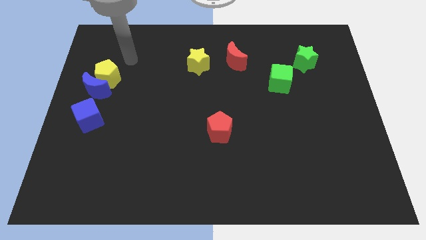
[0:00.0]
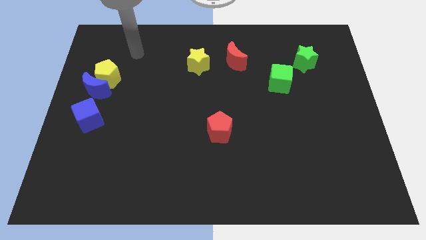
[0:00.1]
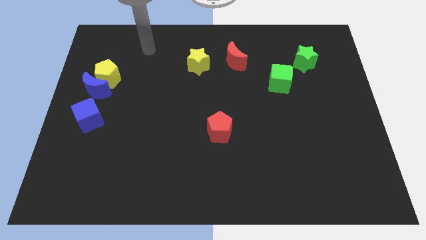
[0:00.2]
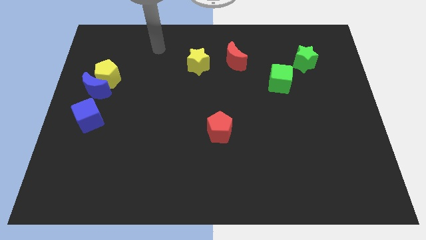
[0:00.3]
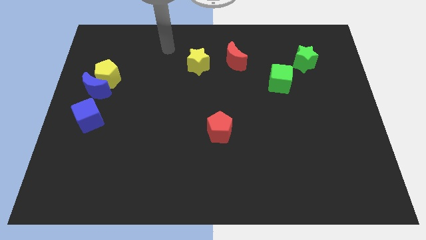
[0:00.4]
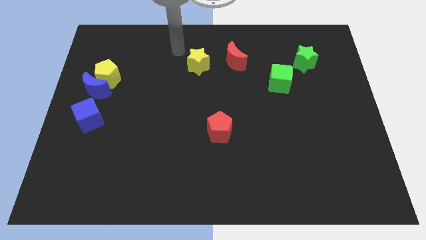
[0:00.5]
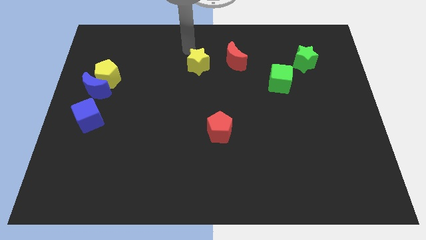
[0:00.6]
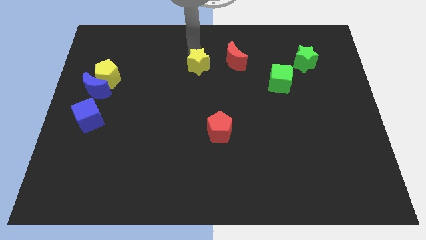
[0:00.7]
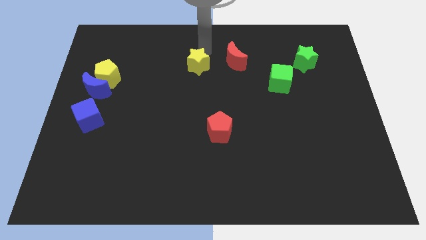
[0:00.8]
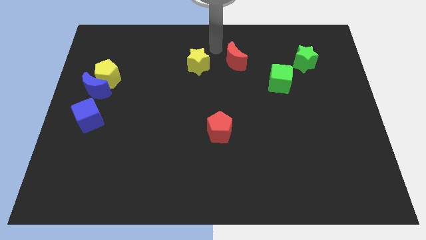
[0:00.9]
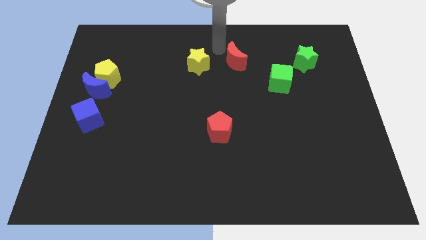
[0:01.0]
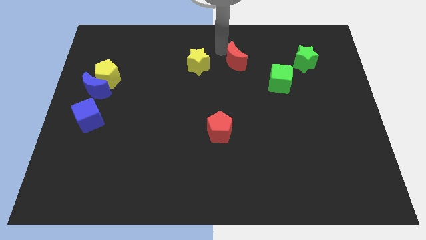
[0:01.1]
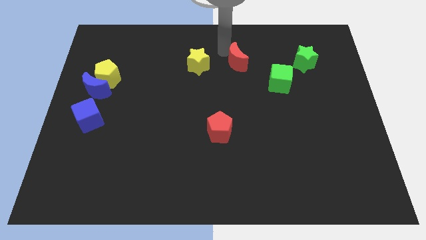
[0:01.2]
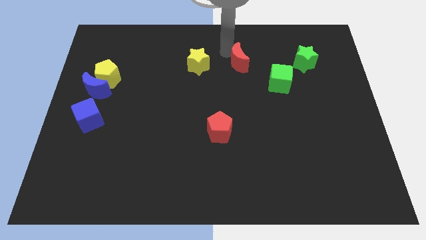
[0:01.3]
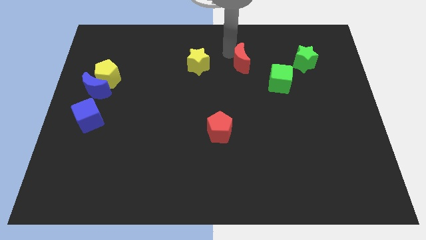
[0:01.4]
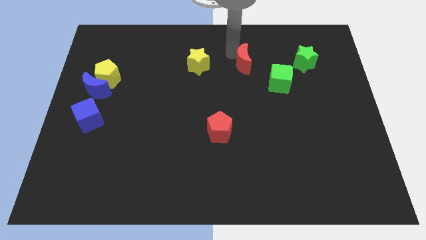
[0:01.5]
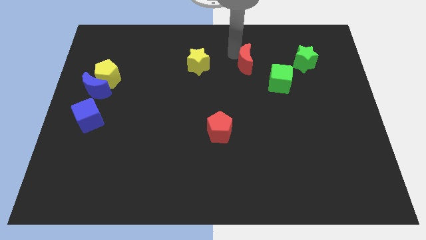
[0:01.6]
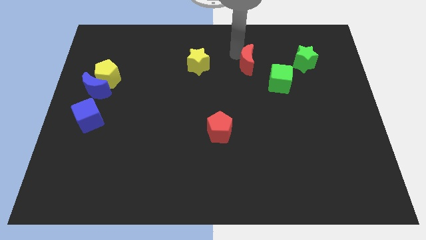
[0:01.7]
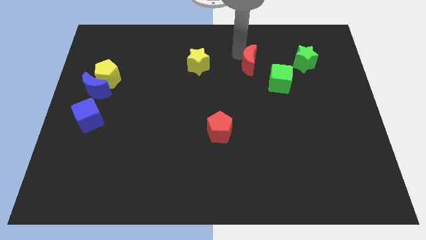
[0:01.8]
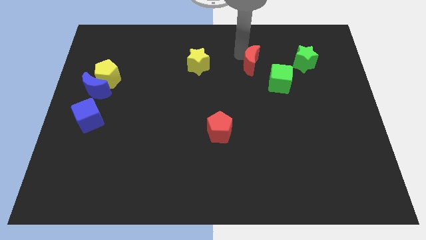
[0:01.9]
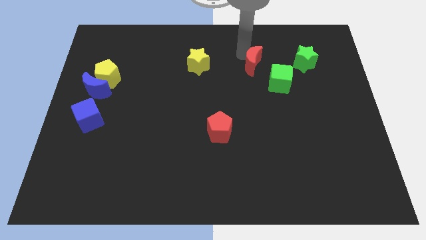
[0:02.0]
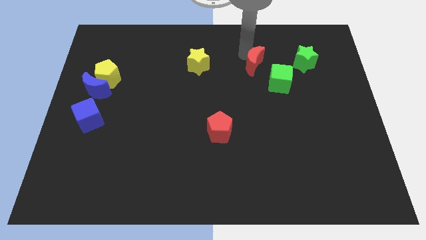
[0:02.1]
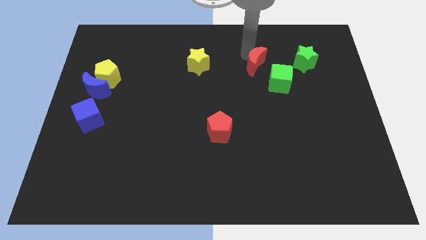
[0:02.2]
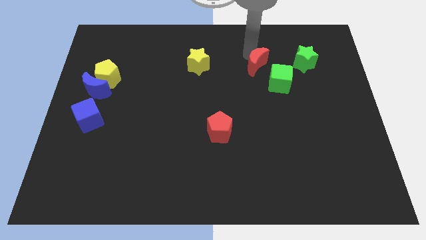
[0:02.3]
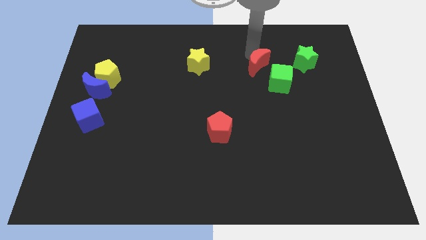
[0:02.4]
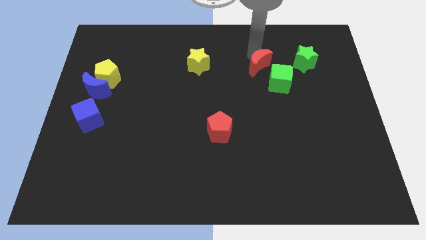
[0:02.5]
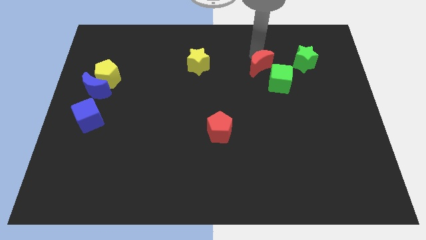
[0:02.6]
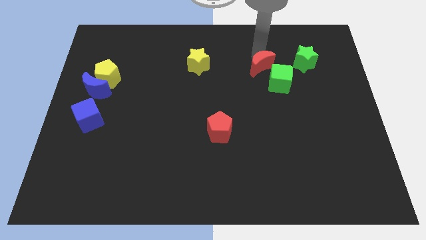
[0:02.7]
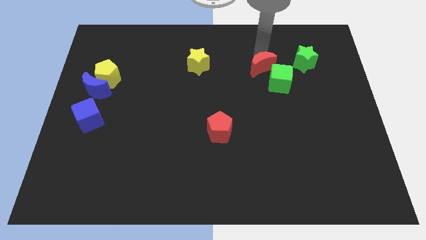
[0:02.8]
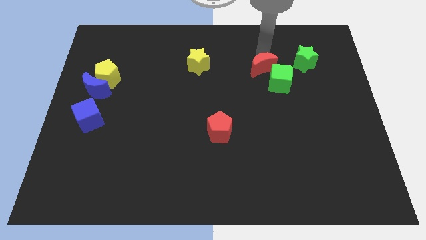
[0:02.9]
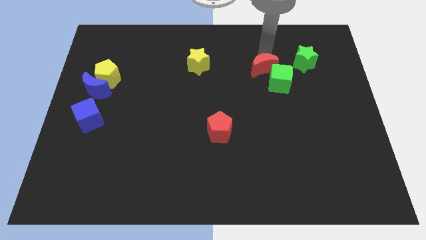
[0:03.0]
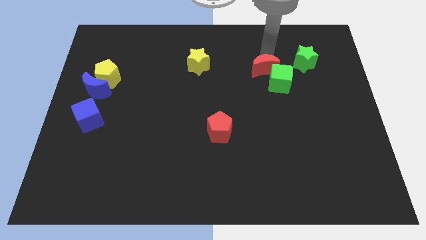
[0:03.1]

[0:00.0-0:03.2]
slide the red moon down and then to the right somewhat

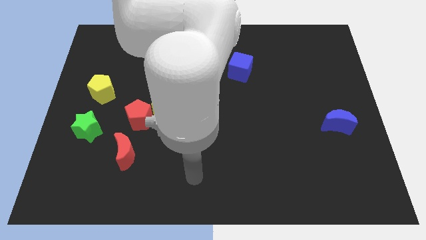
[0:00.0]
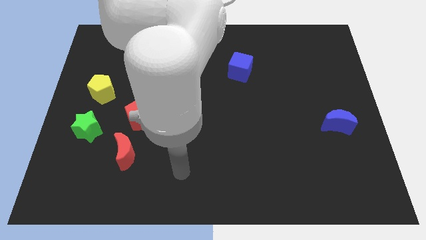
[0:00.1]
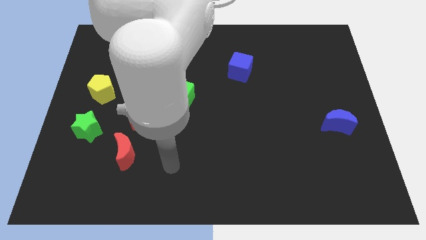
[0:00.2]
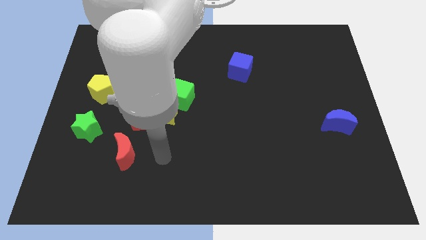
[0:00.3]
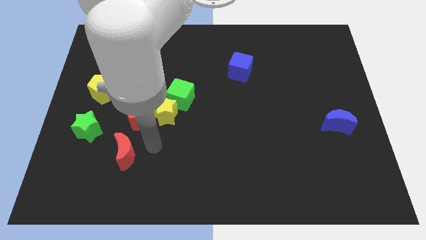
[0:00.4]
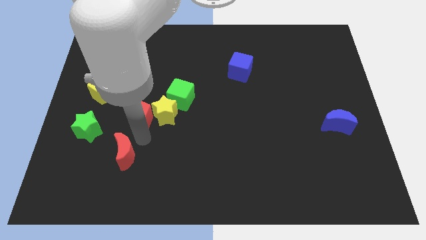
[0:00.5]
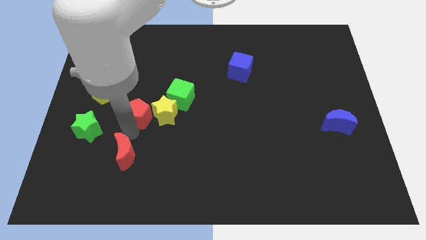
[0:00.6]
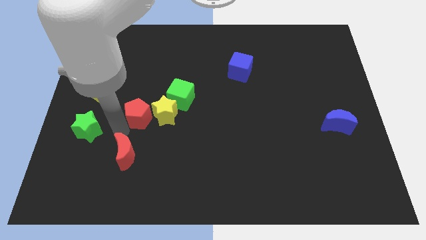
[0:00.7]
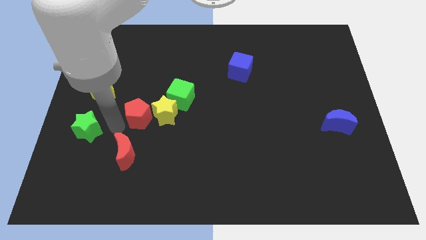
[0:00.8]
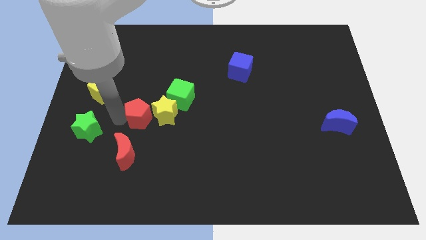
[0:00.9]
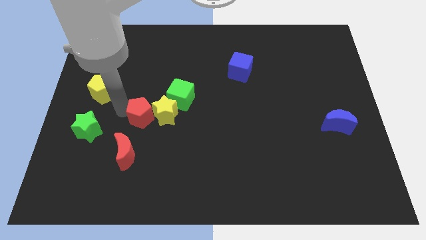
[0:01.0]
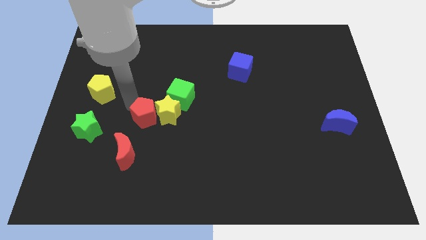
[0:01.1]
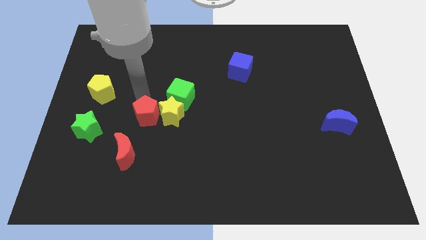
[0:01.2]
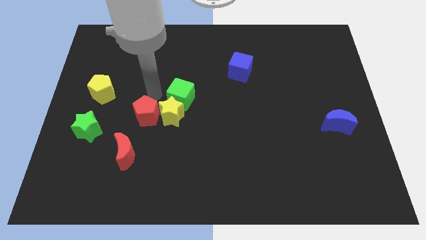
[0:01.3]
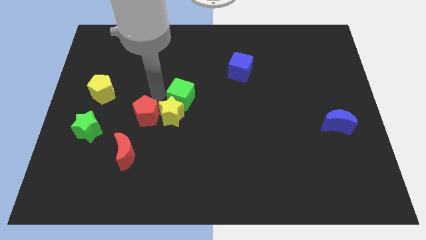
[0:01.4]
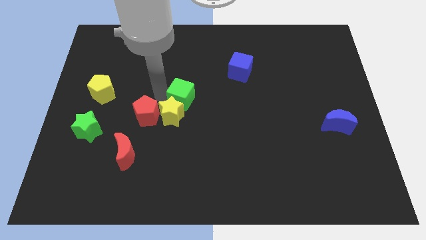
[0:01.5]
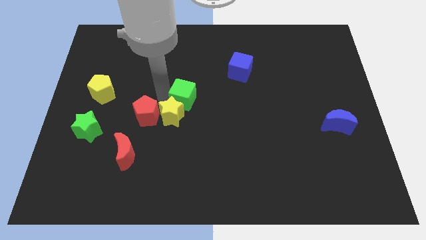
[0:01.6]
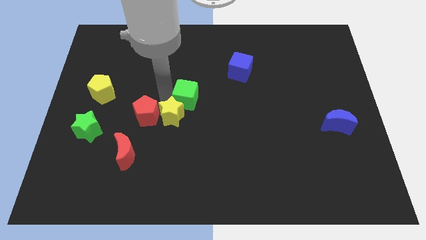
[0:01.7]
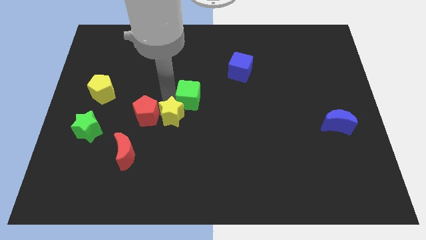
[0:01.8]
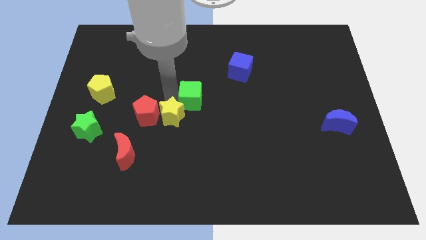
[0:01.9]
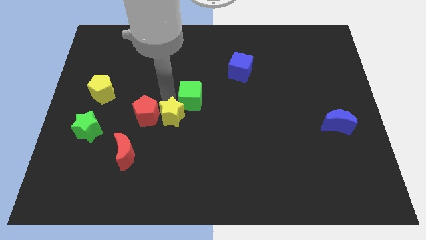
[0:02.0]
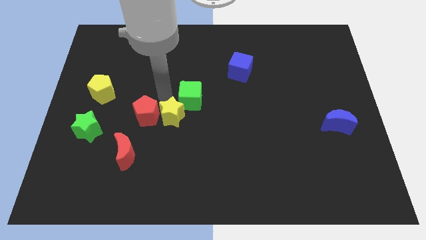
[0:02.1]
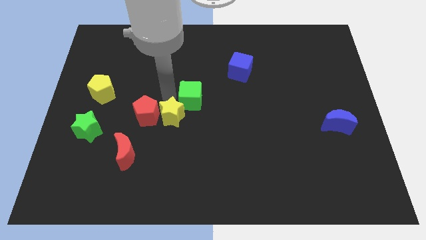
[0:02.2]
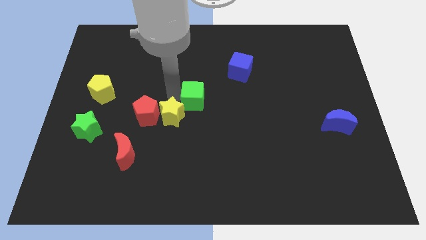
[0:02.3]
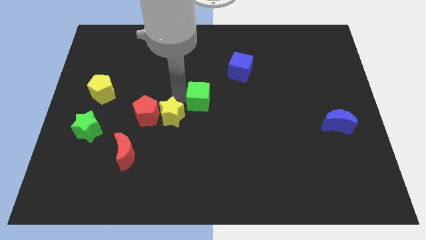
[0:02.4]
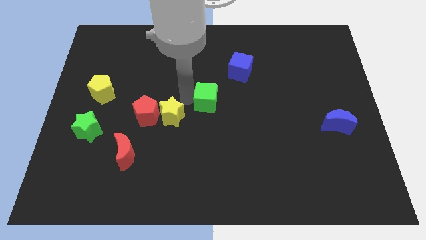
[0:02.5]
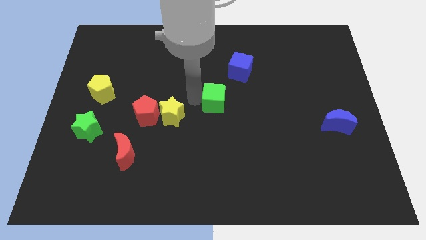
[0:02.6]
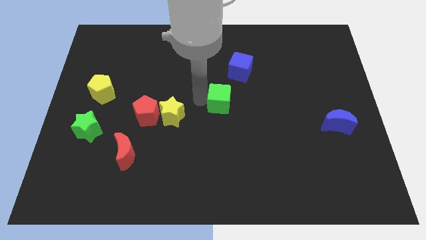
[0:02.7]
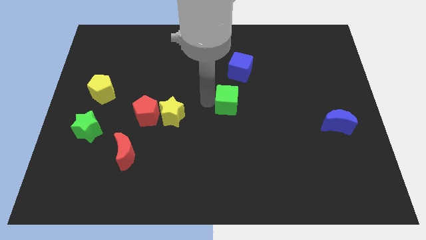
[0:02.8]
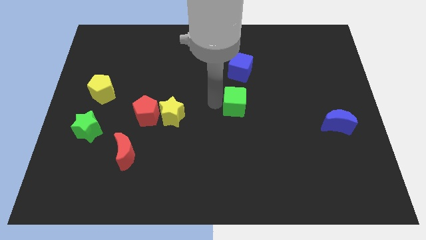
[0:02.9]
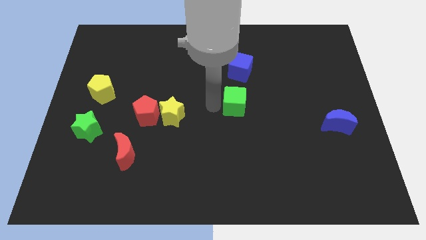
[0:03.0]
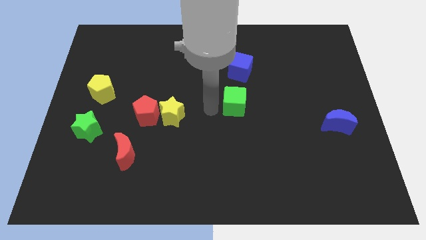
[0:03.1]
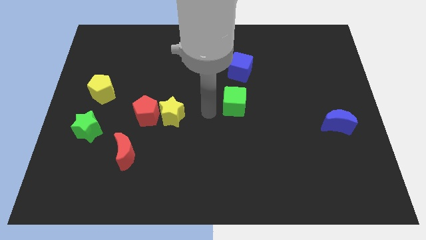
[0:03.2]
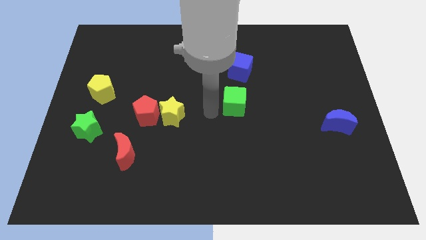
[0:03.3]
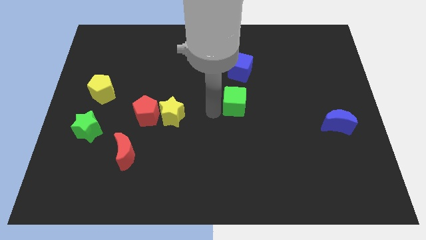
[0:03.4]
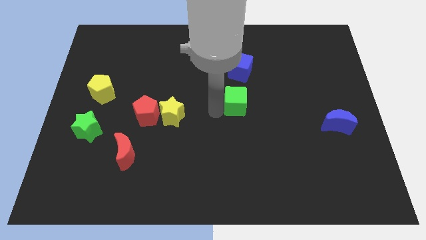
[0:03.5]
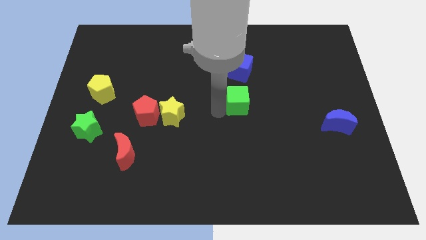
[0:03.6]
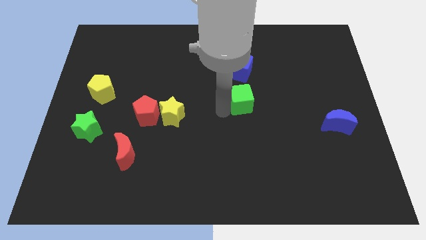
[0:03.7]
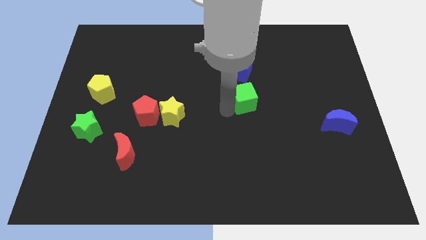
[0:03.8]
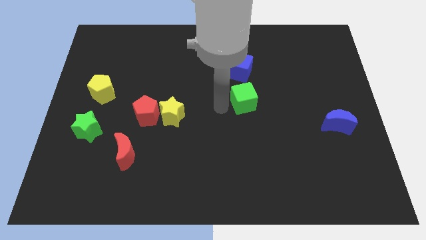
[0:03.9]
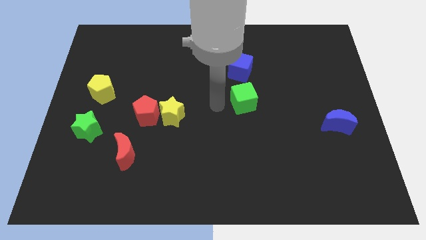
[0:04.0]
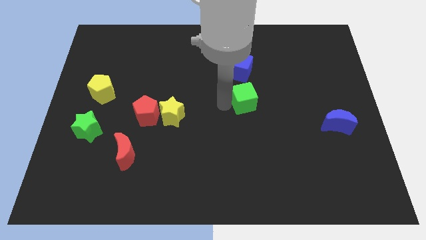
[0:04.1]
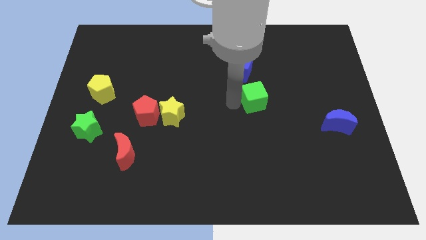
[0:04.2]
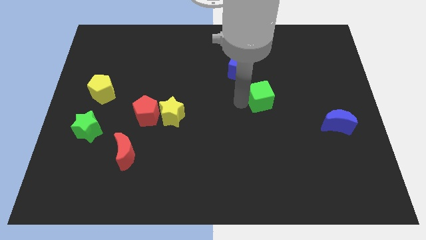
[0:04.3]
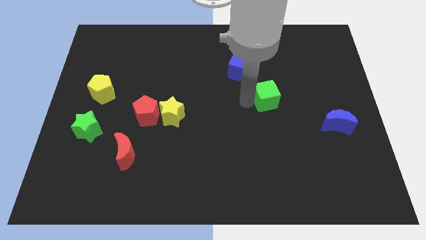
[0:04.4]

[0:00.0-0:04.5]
slide the green cube to the right
